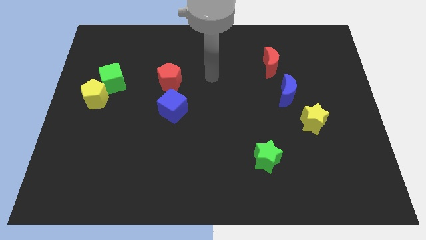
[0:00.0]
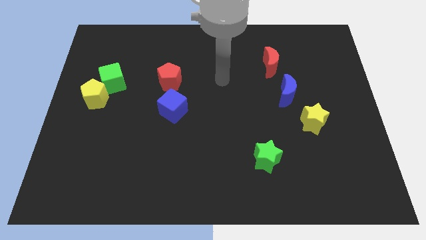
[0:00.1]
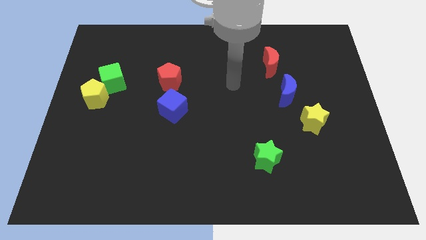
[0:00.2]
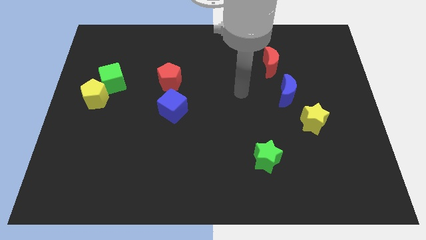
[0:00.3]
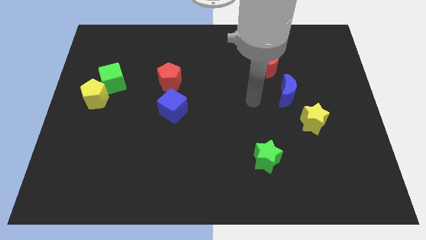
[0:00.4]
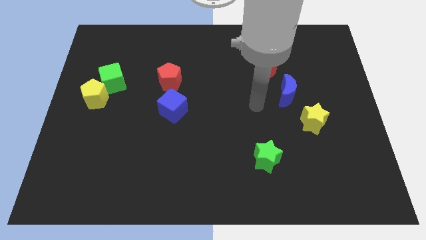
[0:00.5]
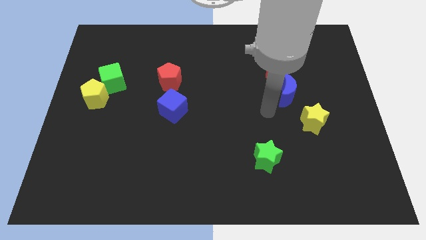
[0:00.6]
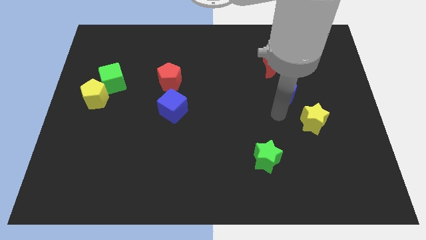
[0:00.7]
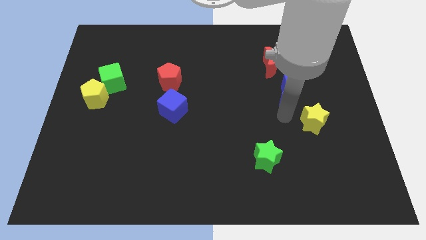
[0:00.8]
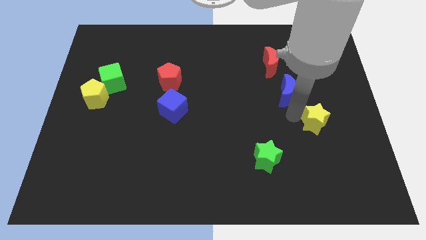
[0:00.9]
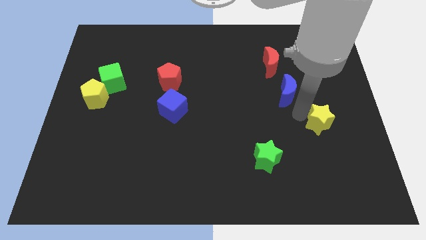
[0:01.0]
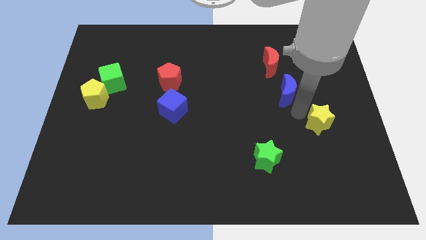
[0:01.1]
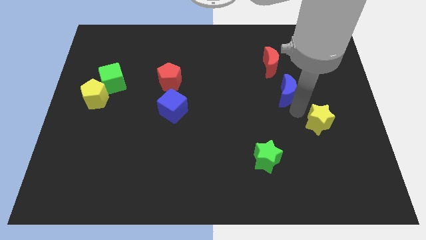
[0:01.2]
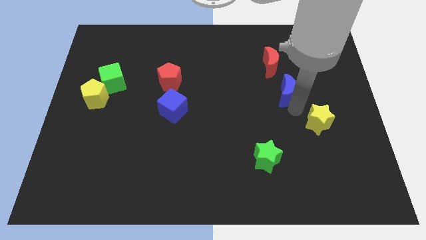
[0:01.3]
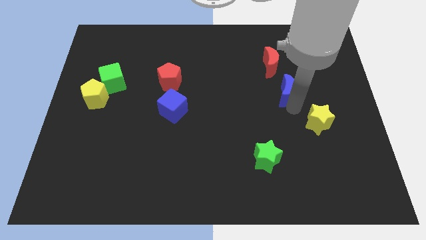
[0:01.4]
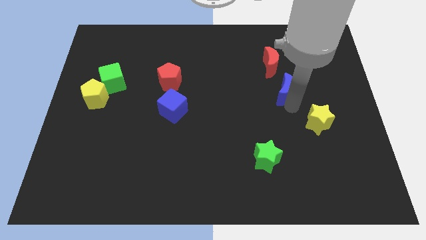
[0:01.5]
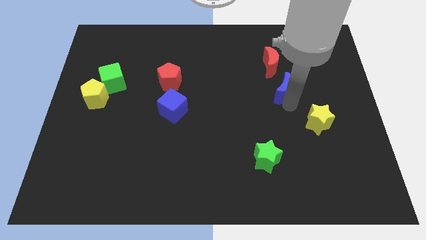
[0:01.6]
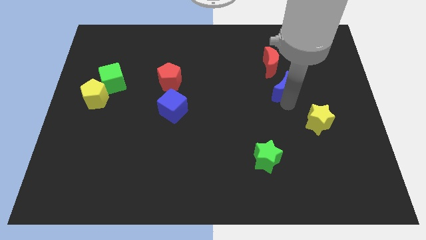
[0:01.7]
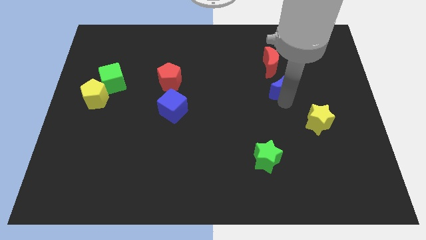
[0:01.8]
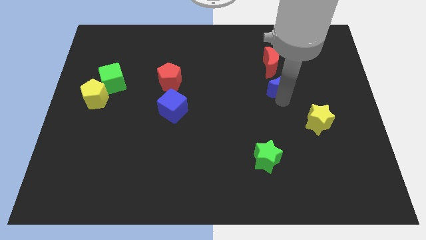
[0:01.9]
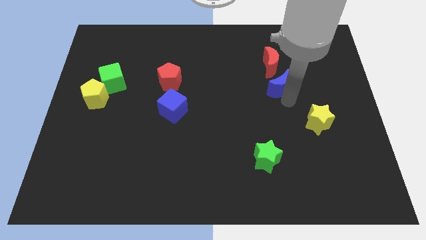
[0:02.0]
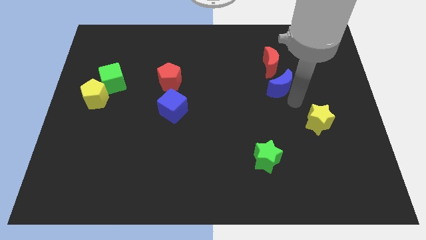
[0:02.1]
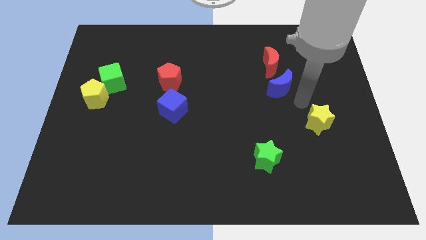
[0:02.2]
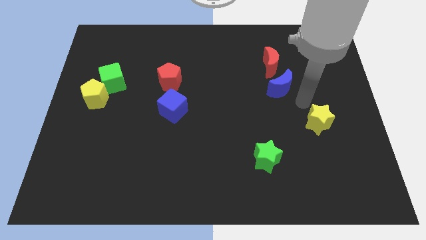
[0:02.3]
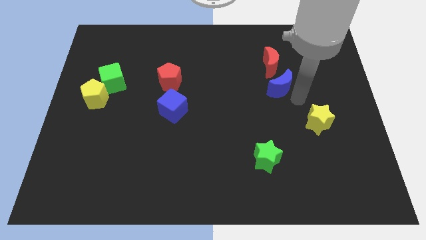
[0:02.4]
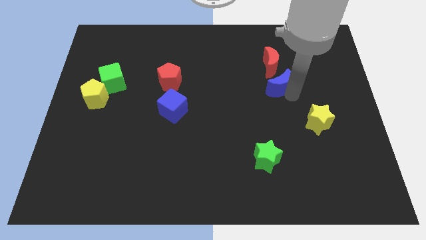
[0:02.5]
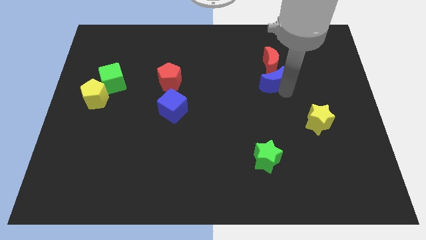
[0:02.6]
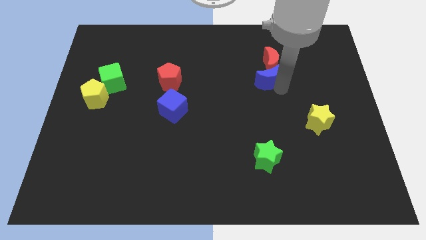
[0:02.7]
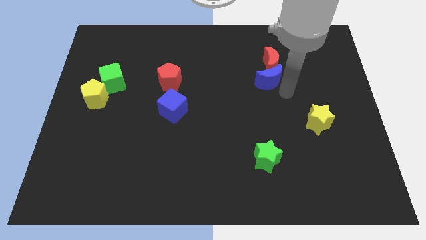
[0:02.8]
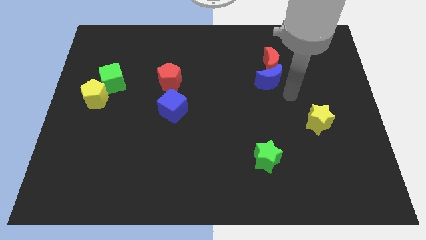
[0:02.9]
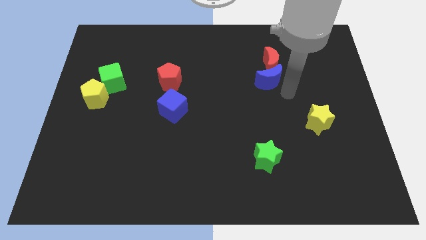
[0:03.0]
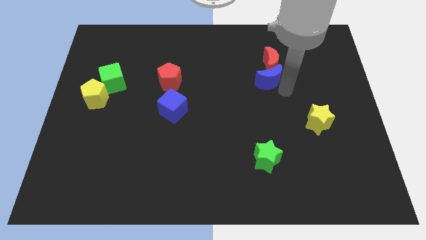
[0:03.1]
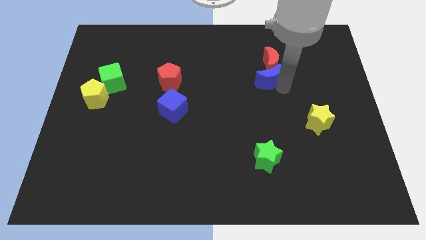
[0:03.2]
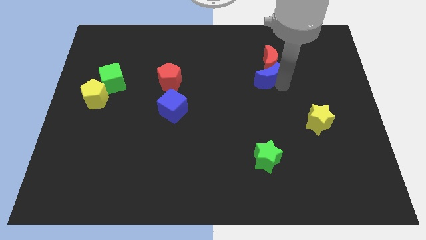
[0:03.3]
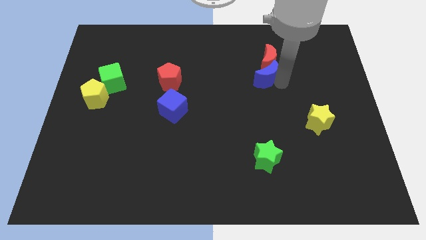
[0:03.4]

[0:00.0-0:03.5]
slightly push the blue moon up and then left

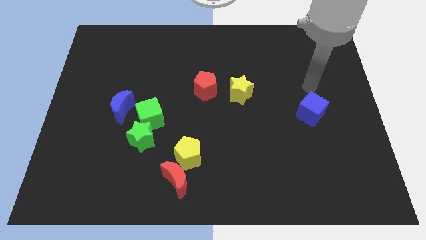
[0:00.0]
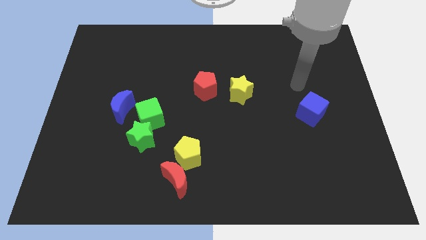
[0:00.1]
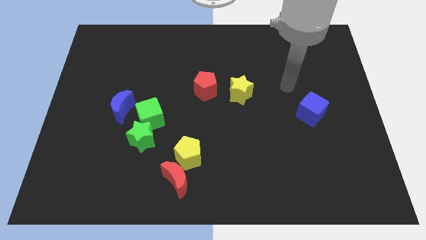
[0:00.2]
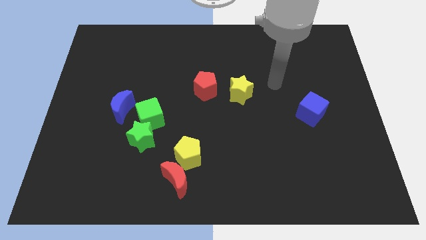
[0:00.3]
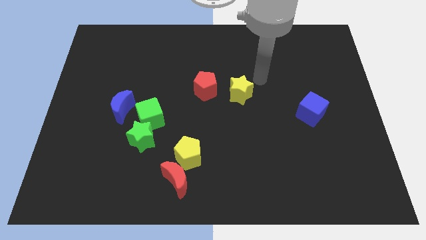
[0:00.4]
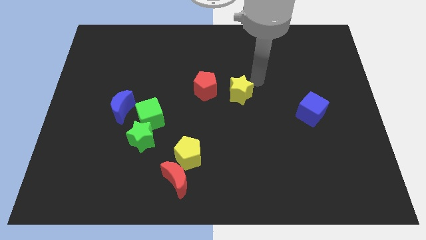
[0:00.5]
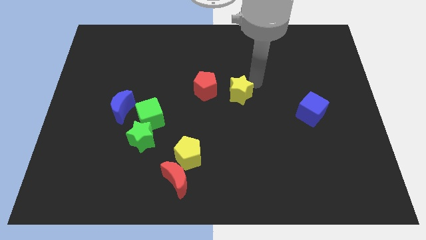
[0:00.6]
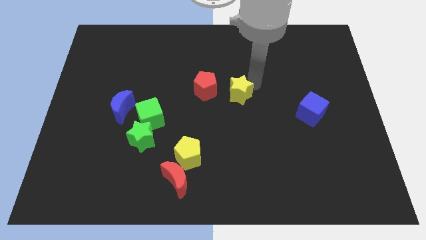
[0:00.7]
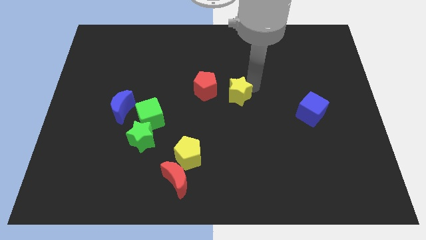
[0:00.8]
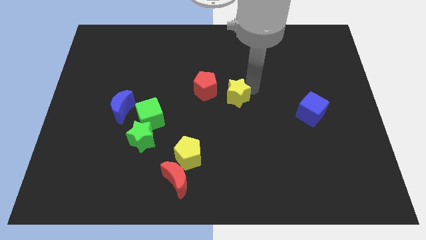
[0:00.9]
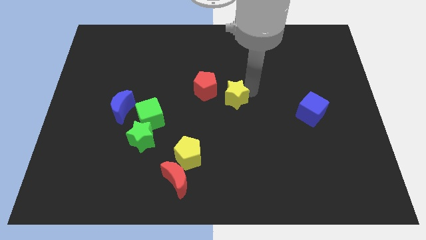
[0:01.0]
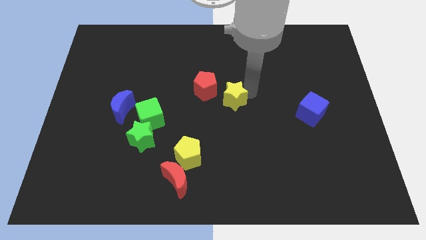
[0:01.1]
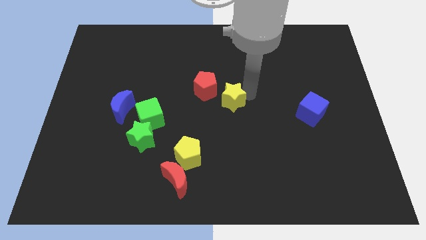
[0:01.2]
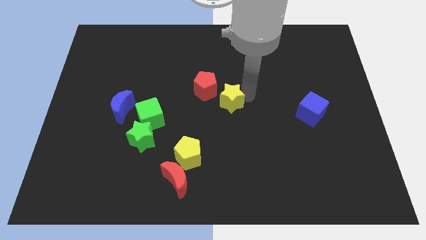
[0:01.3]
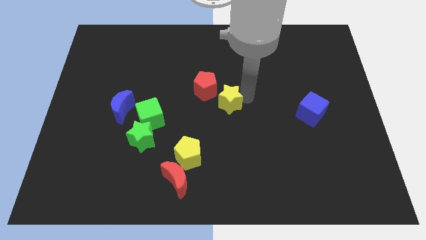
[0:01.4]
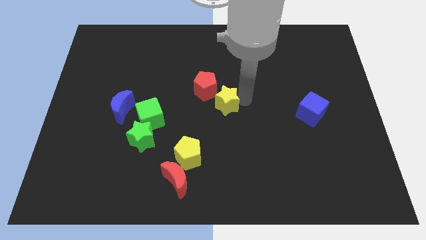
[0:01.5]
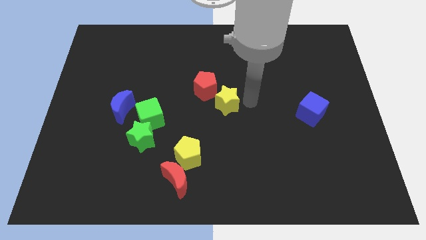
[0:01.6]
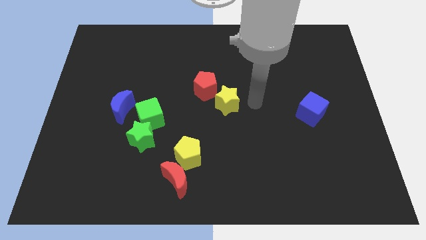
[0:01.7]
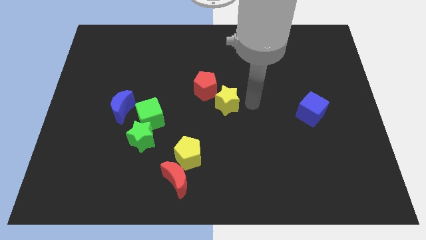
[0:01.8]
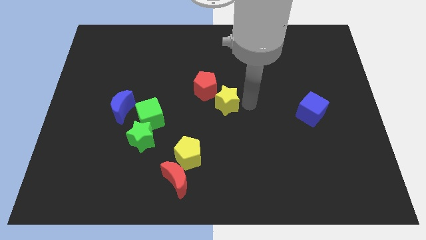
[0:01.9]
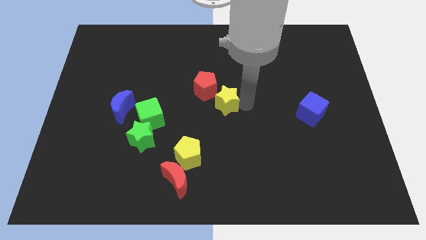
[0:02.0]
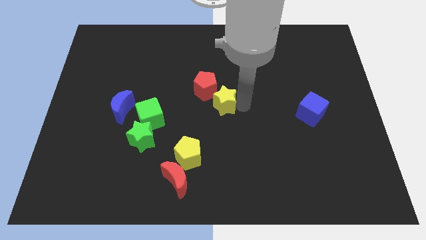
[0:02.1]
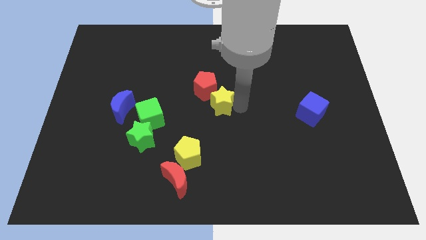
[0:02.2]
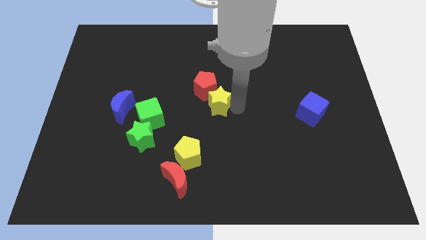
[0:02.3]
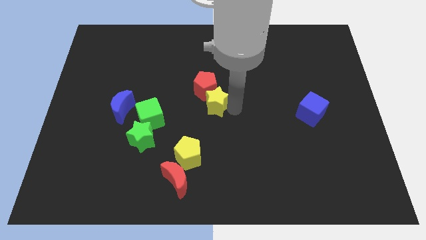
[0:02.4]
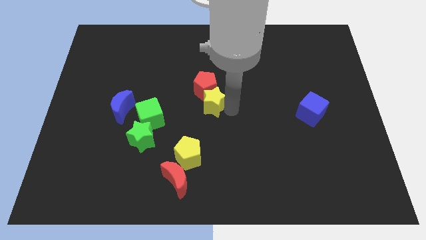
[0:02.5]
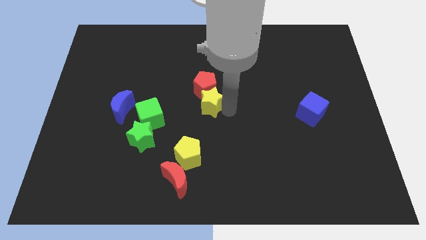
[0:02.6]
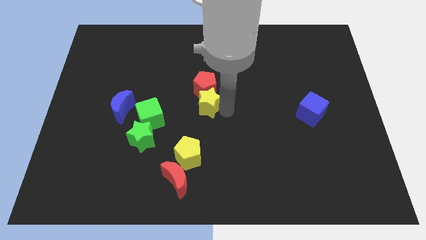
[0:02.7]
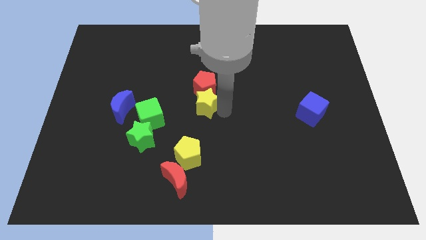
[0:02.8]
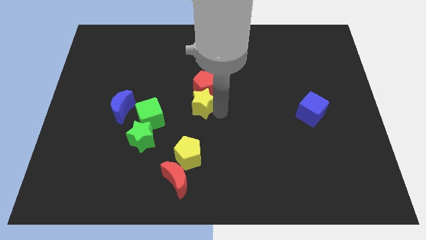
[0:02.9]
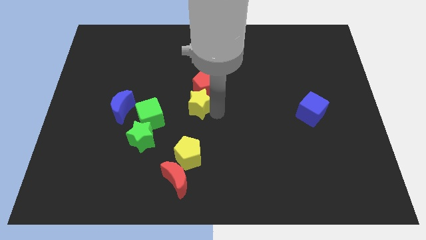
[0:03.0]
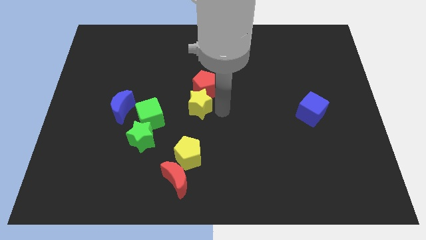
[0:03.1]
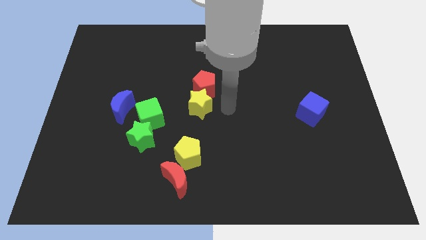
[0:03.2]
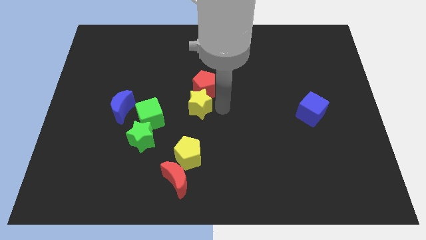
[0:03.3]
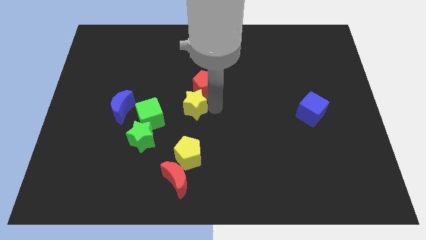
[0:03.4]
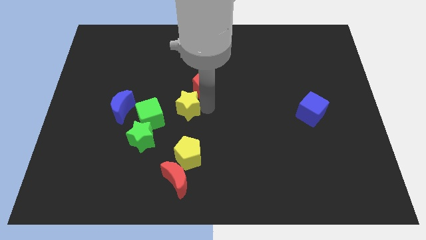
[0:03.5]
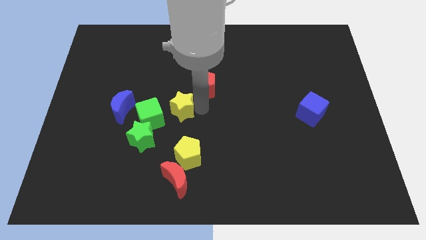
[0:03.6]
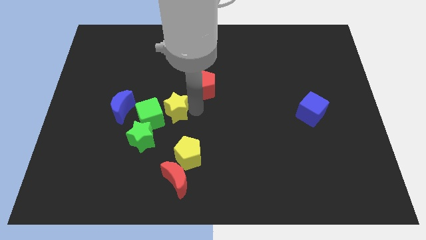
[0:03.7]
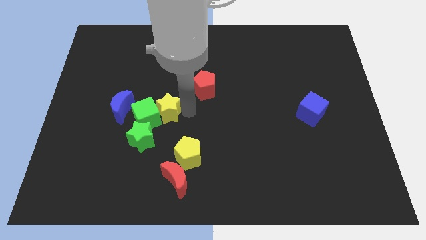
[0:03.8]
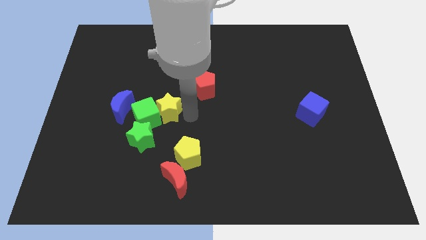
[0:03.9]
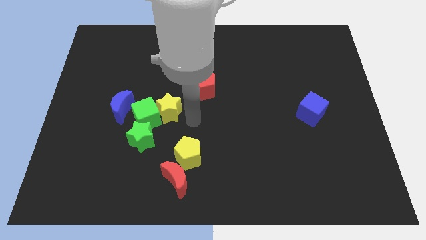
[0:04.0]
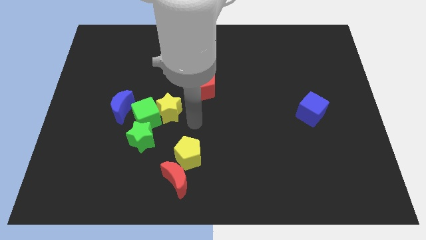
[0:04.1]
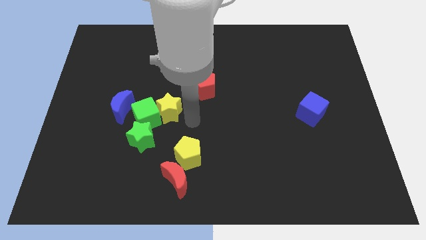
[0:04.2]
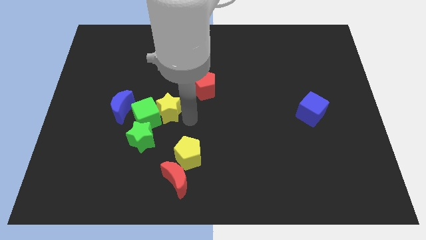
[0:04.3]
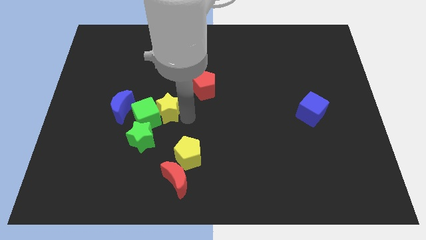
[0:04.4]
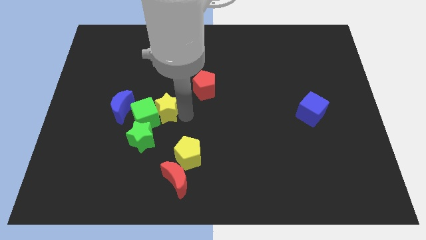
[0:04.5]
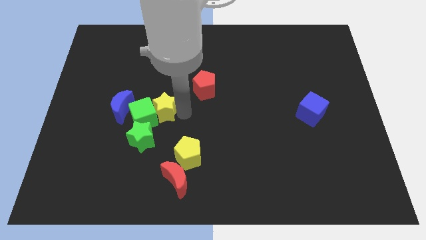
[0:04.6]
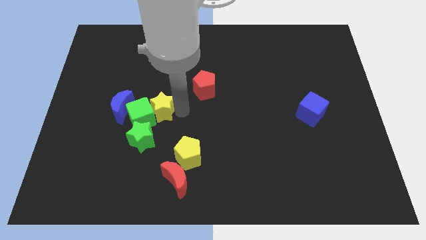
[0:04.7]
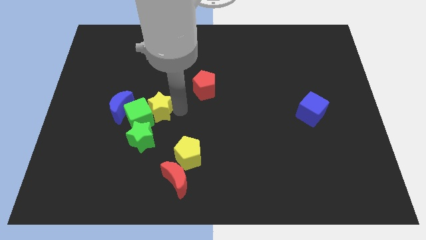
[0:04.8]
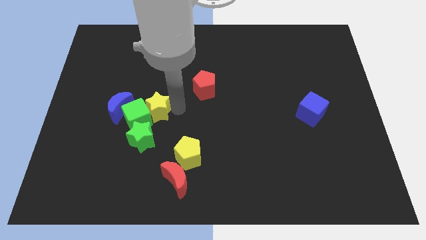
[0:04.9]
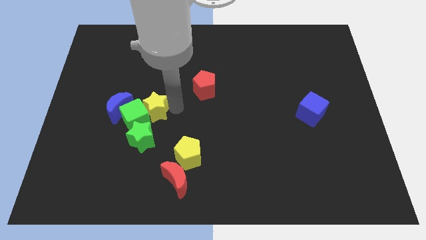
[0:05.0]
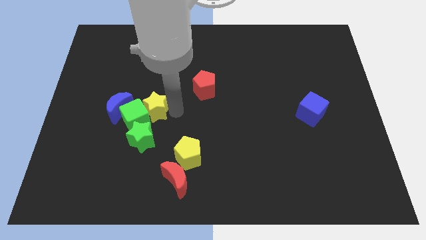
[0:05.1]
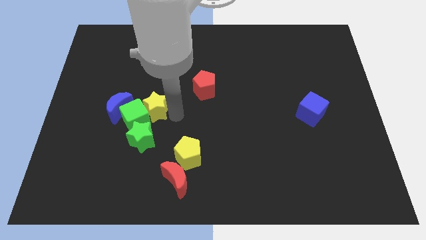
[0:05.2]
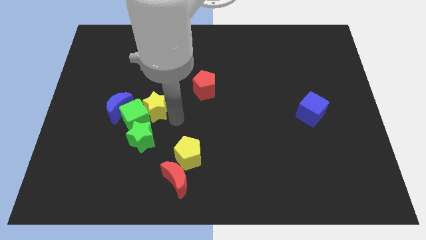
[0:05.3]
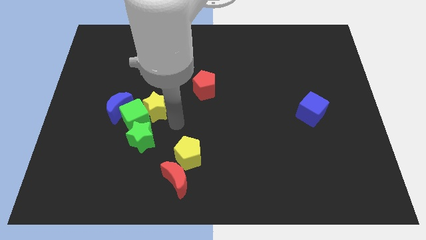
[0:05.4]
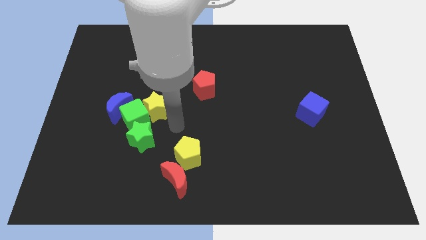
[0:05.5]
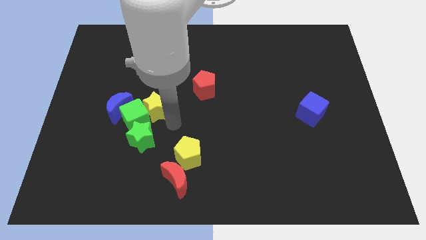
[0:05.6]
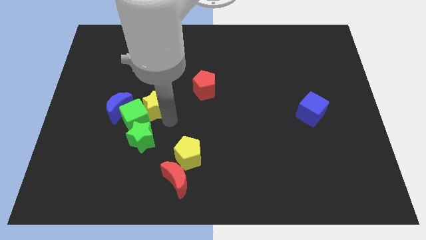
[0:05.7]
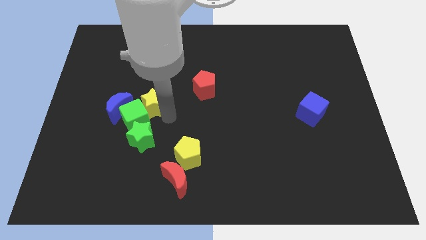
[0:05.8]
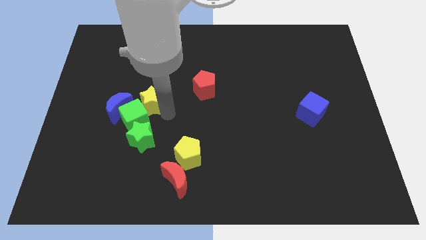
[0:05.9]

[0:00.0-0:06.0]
move the yellow star to the left
